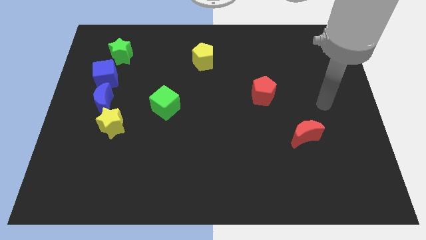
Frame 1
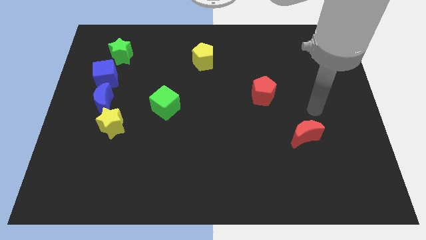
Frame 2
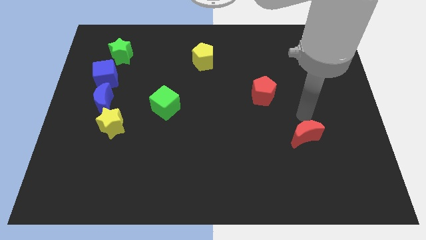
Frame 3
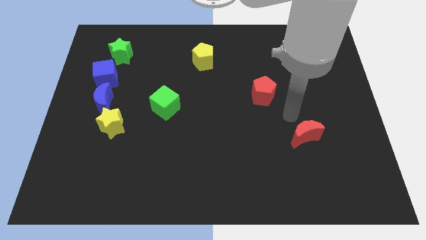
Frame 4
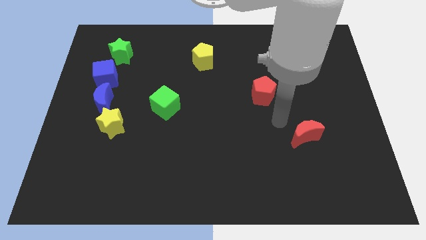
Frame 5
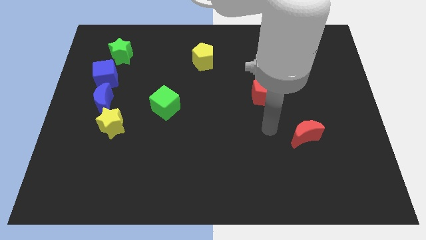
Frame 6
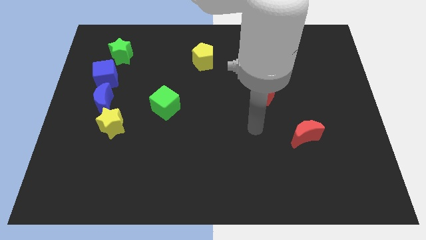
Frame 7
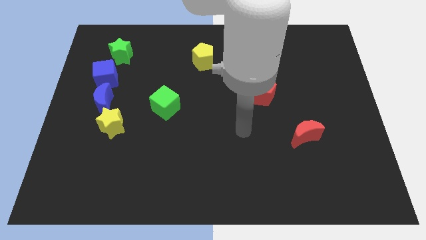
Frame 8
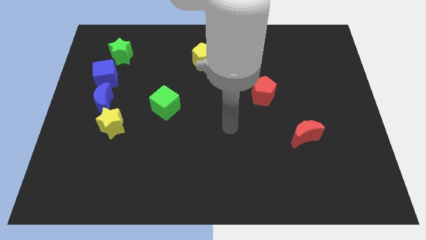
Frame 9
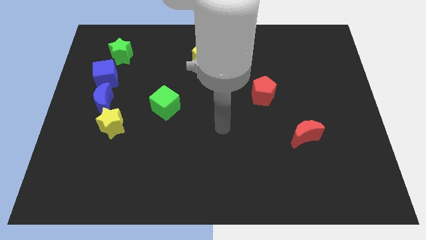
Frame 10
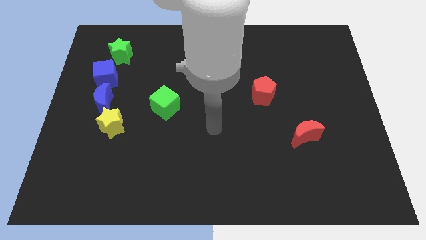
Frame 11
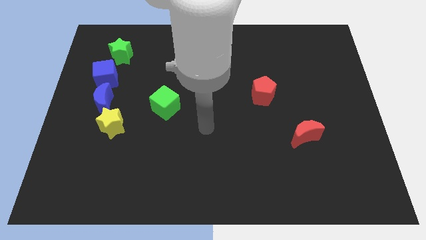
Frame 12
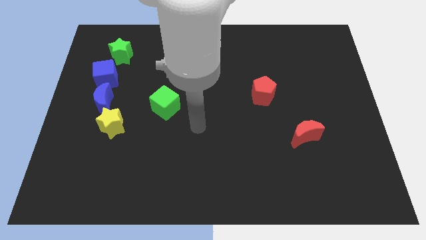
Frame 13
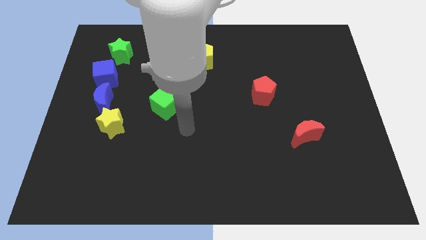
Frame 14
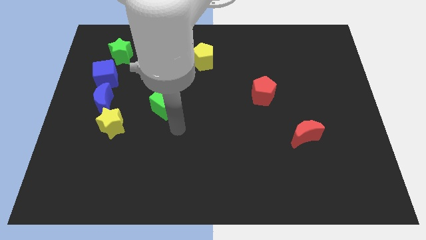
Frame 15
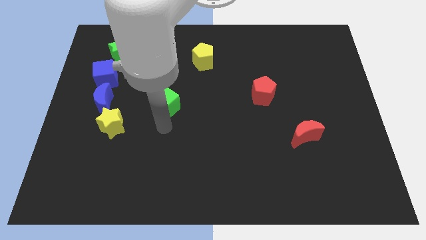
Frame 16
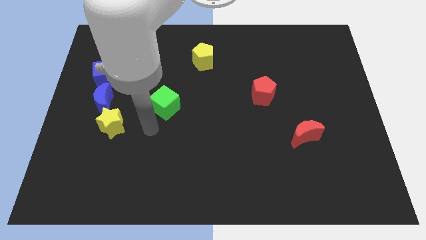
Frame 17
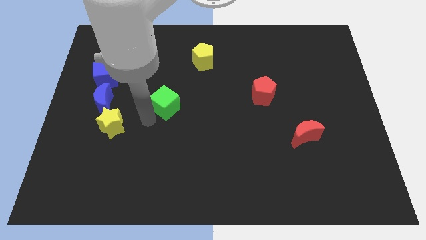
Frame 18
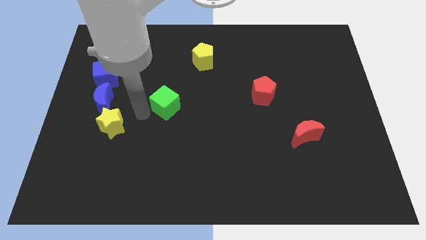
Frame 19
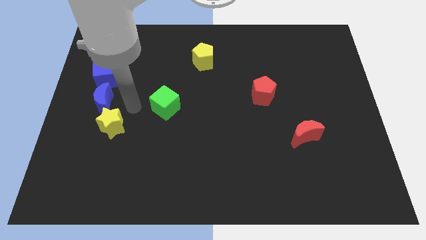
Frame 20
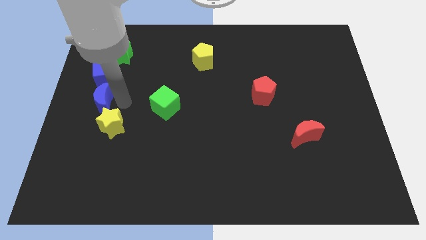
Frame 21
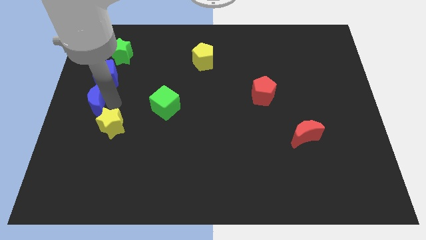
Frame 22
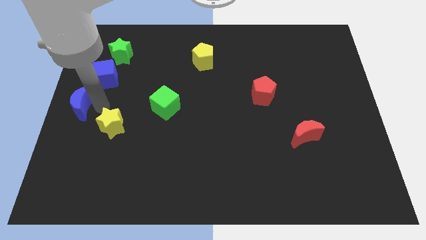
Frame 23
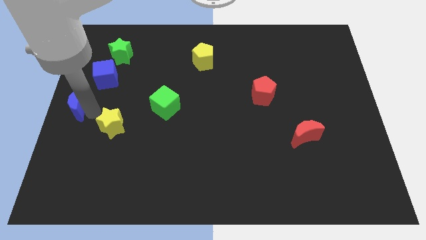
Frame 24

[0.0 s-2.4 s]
move the yellow star away from the blue moon

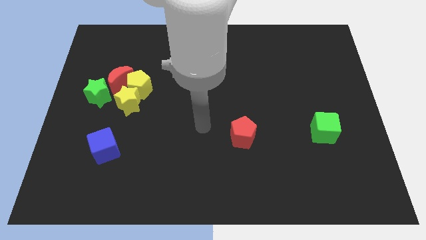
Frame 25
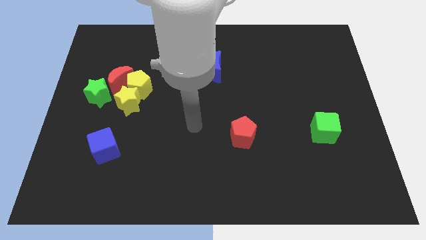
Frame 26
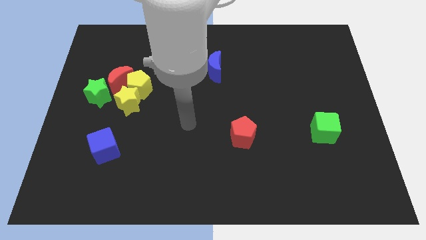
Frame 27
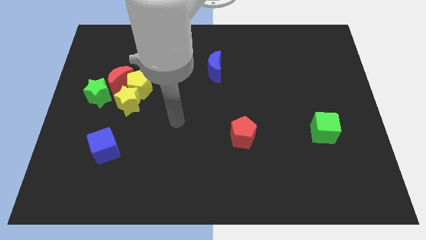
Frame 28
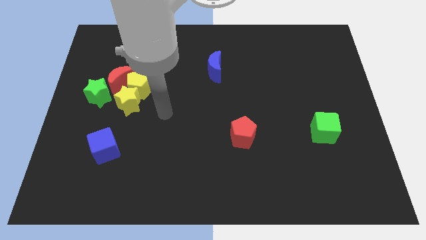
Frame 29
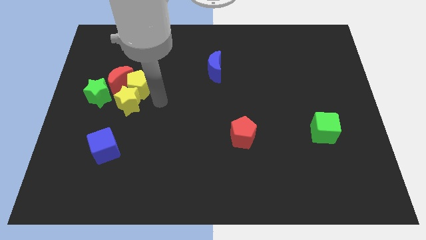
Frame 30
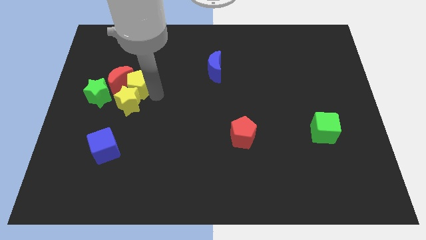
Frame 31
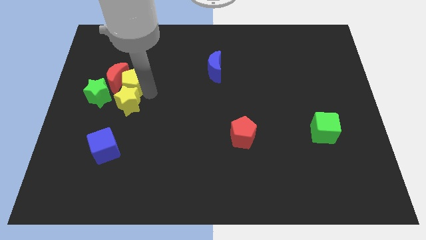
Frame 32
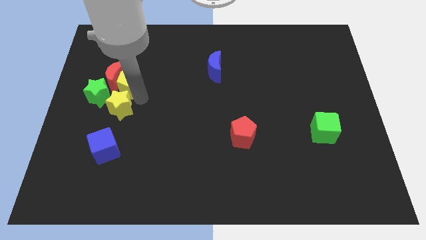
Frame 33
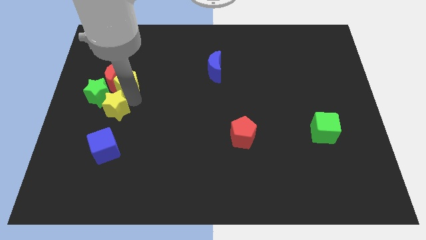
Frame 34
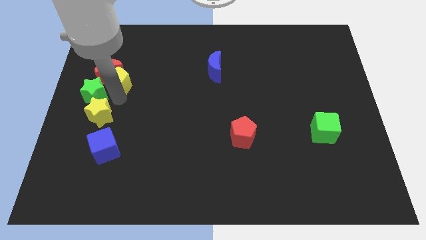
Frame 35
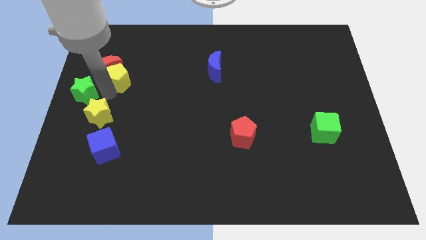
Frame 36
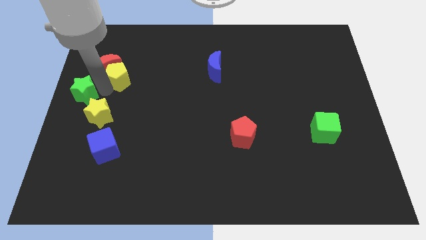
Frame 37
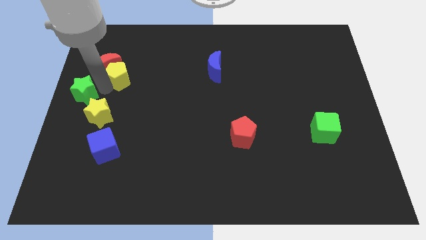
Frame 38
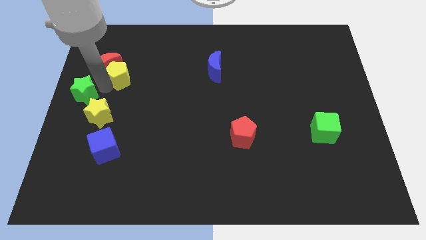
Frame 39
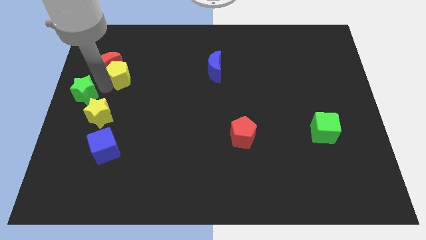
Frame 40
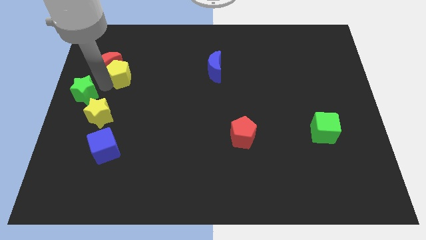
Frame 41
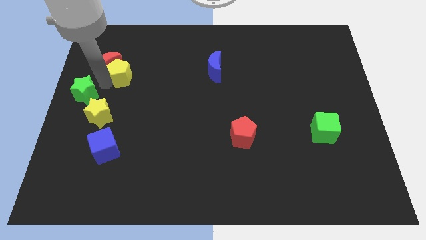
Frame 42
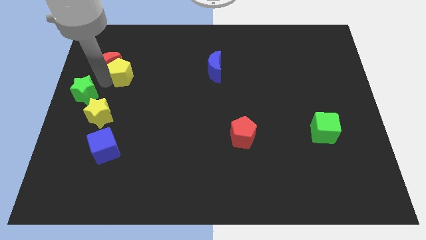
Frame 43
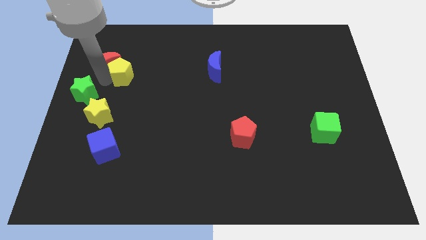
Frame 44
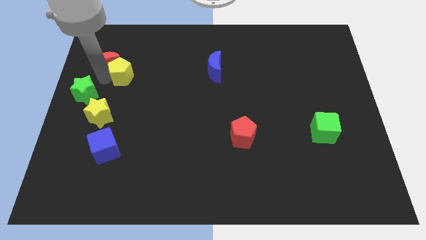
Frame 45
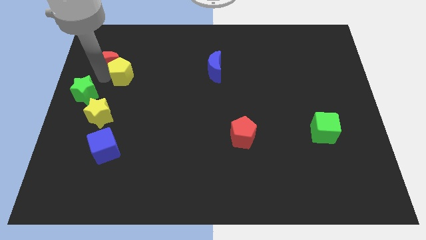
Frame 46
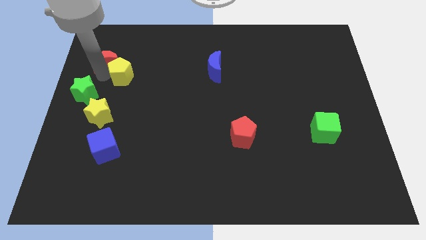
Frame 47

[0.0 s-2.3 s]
pull the red moon apart from the yellow pentagon, green star, and yellow star

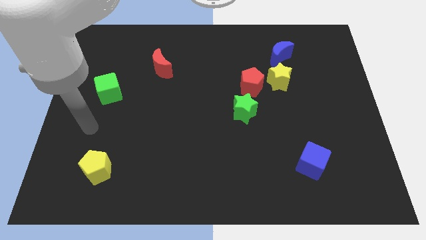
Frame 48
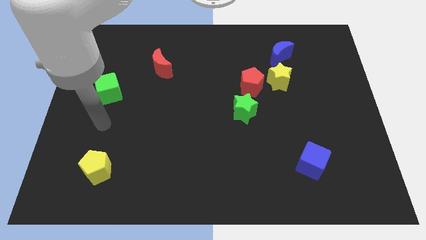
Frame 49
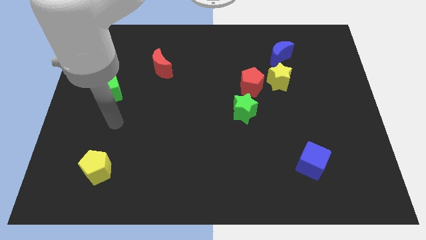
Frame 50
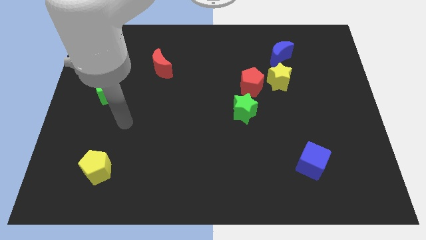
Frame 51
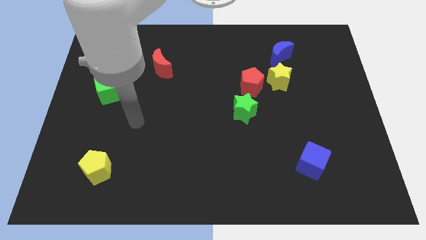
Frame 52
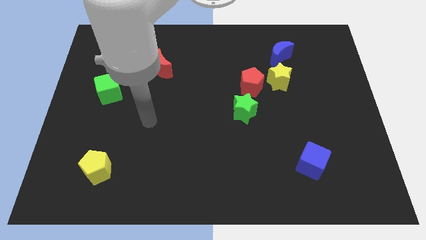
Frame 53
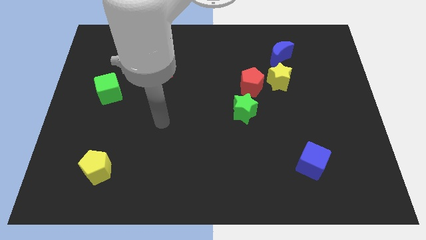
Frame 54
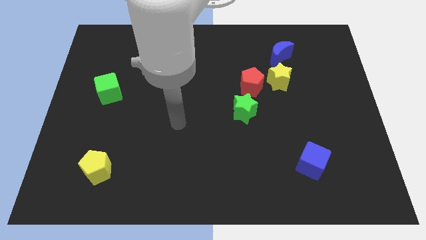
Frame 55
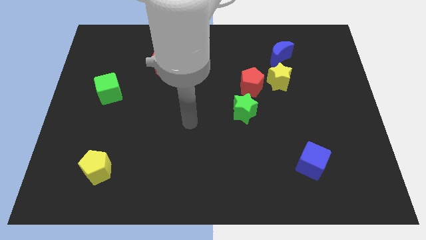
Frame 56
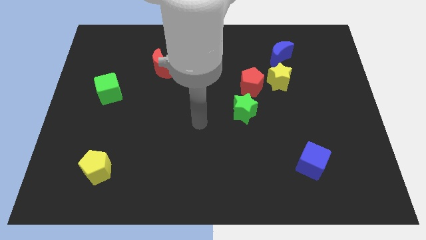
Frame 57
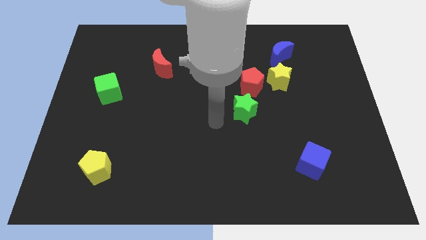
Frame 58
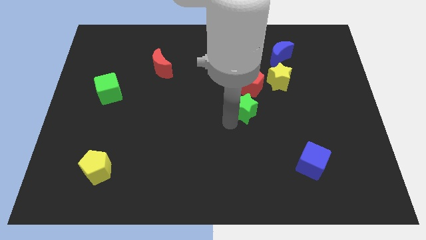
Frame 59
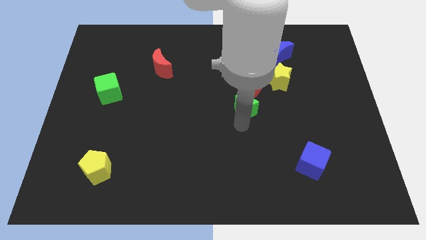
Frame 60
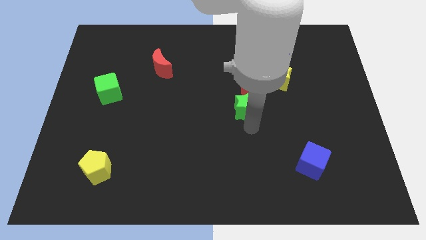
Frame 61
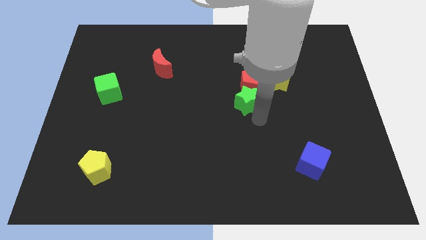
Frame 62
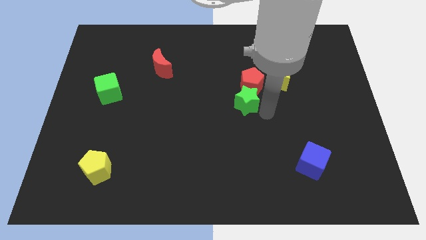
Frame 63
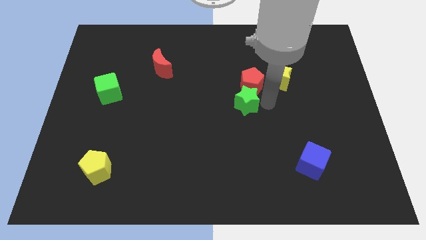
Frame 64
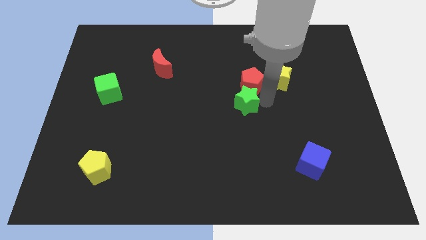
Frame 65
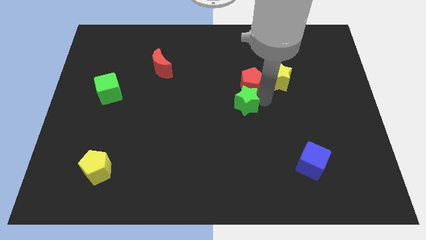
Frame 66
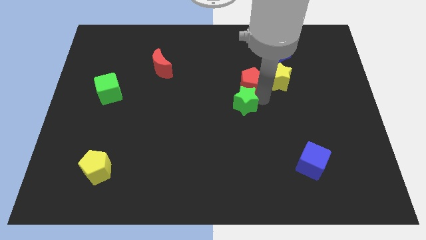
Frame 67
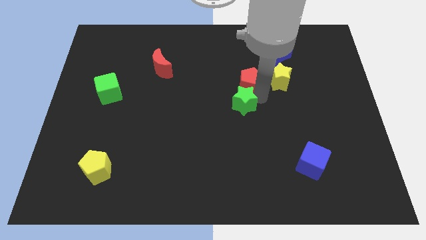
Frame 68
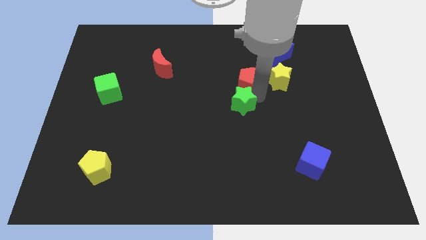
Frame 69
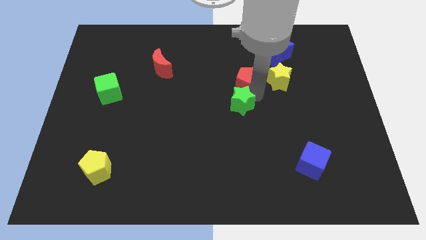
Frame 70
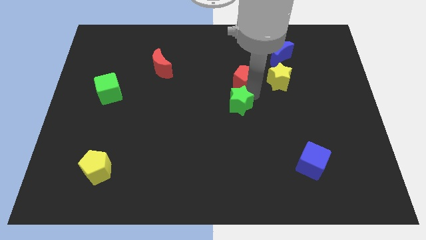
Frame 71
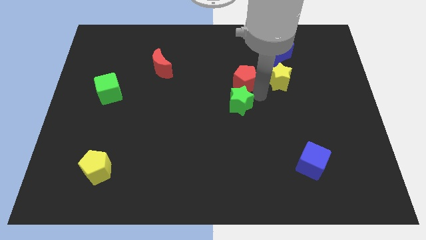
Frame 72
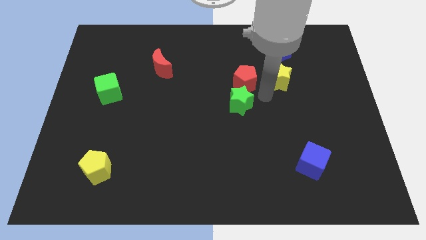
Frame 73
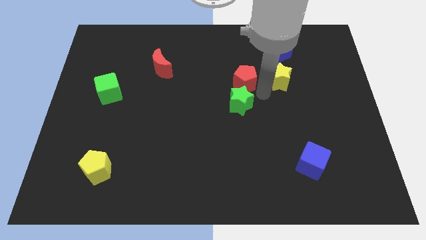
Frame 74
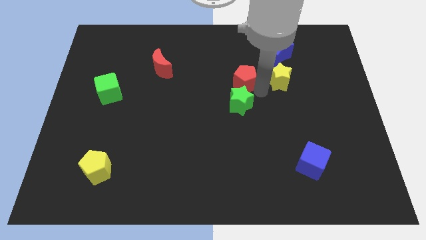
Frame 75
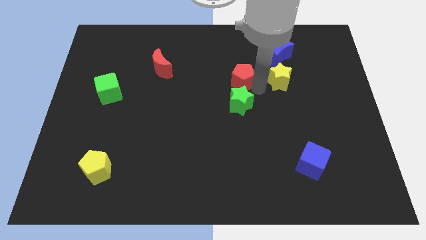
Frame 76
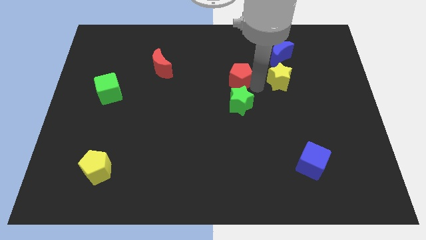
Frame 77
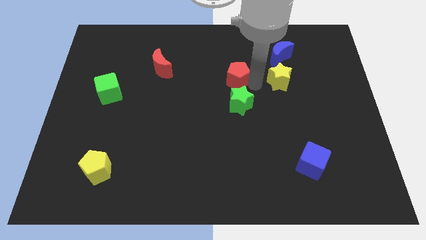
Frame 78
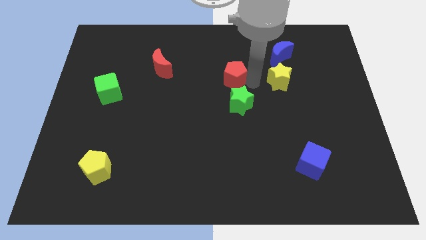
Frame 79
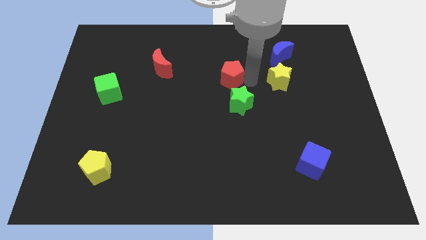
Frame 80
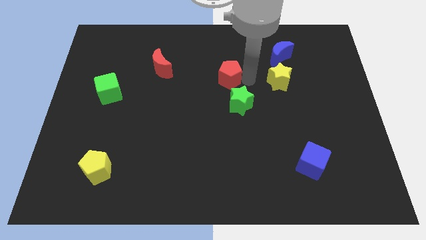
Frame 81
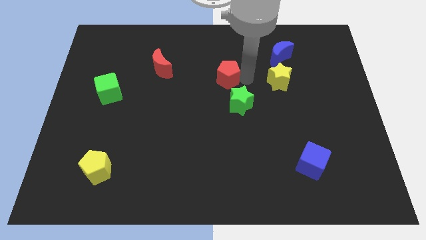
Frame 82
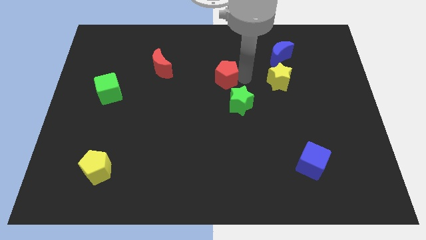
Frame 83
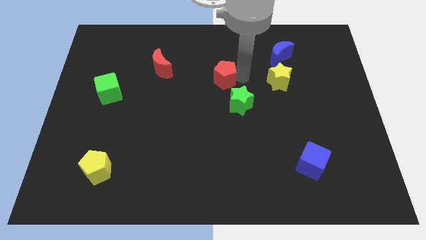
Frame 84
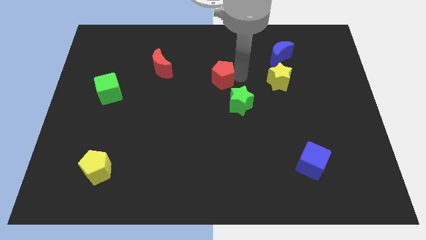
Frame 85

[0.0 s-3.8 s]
separate the red pentagon from the yellow star and green star

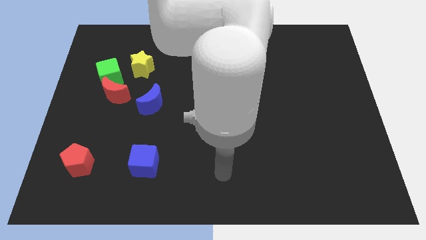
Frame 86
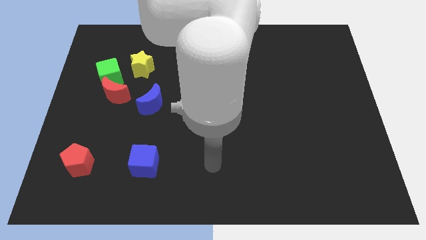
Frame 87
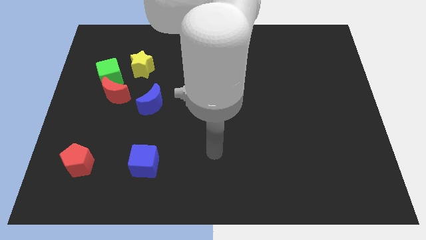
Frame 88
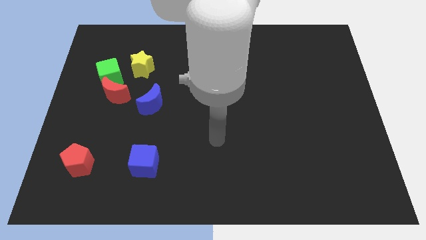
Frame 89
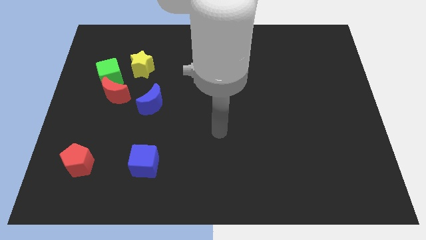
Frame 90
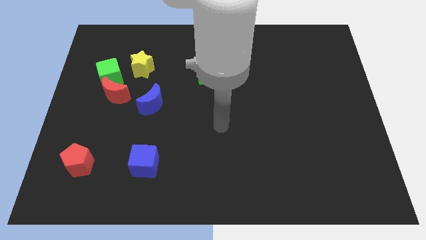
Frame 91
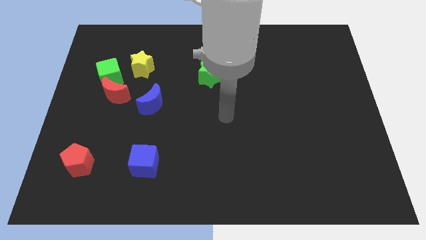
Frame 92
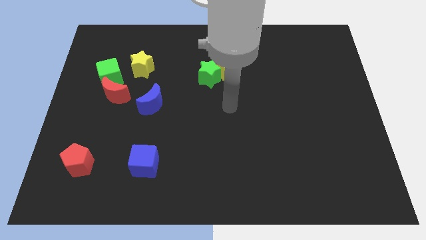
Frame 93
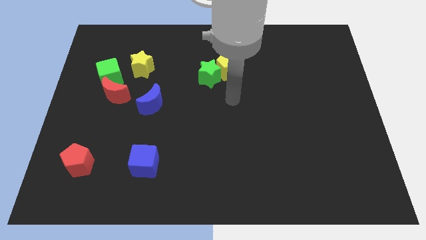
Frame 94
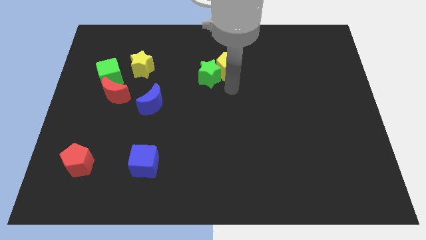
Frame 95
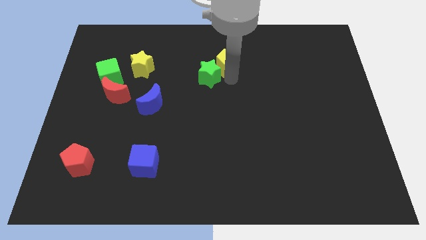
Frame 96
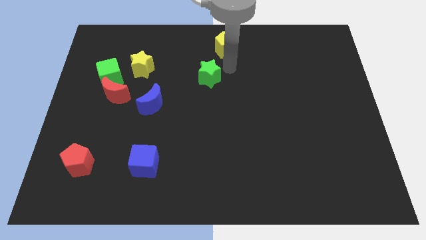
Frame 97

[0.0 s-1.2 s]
separate the green star from the yellow pentagon
